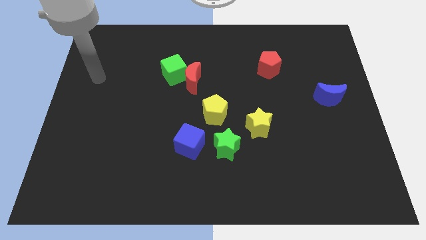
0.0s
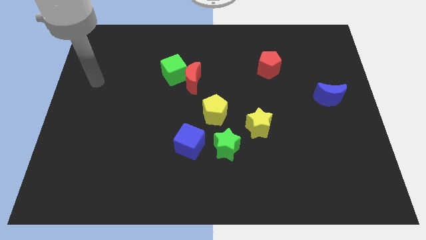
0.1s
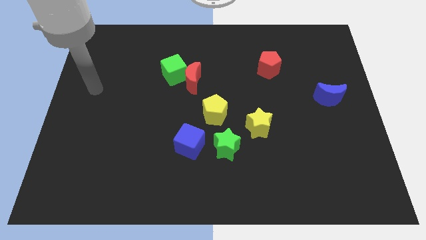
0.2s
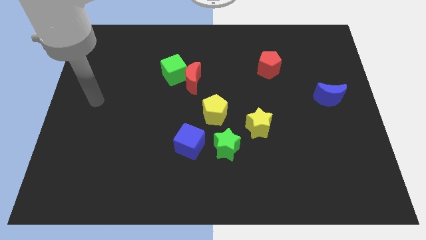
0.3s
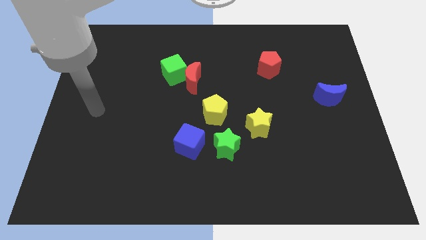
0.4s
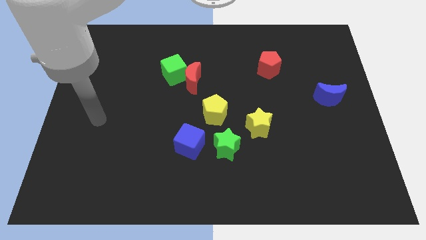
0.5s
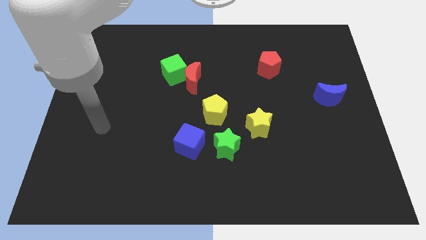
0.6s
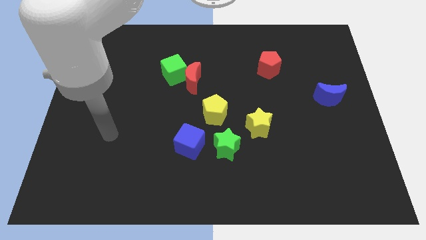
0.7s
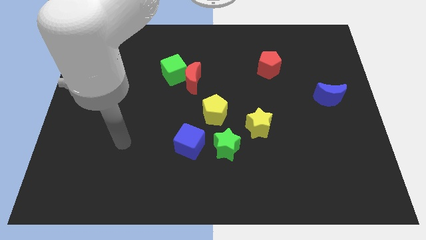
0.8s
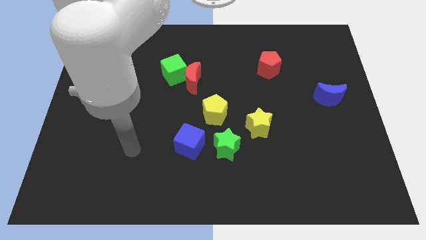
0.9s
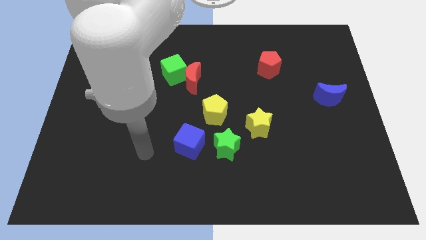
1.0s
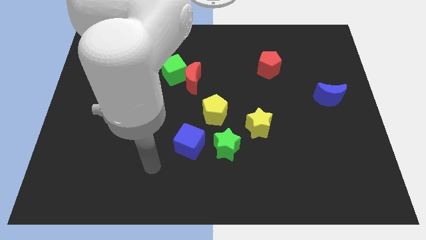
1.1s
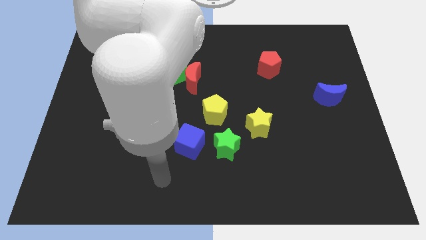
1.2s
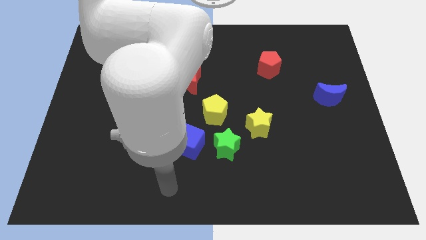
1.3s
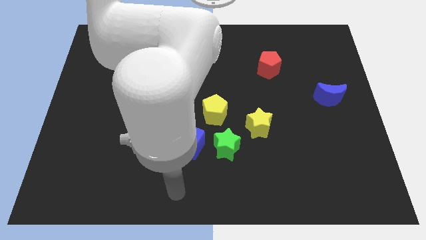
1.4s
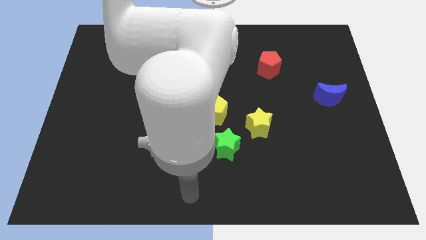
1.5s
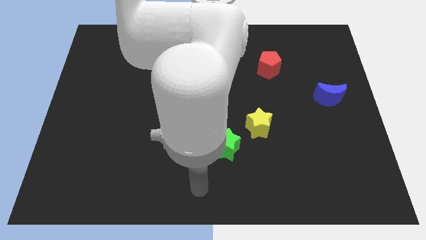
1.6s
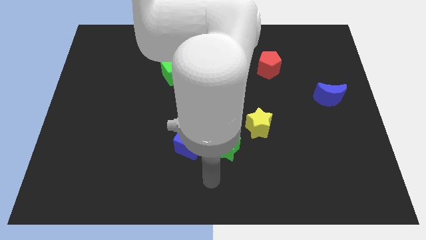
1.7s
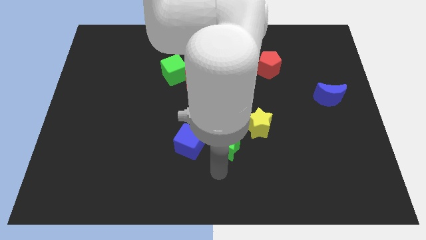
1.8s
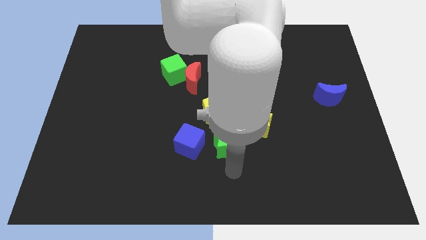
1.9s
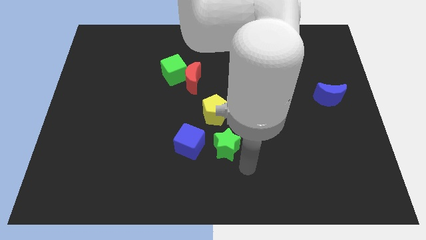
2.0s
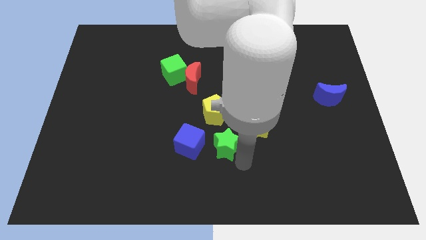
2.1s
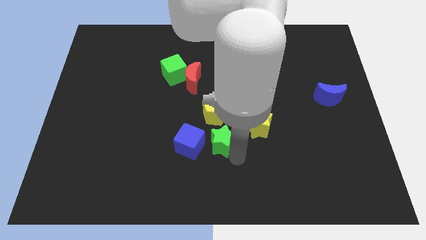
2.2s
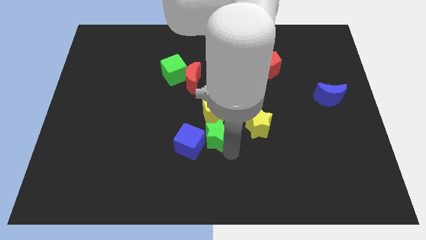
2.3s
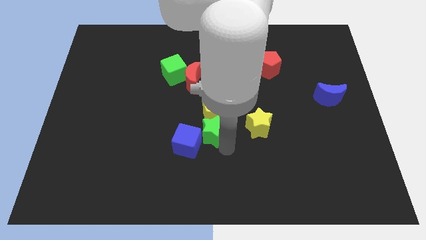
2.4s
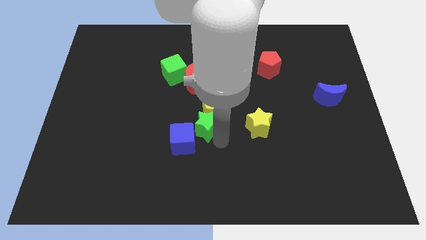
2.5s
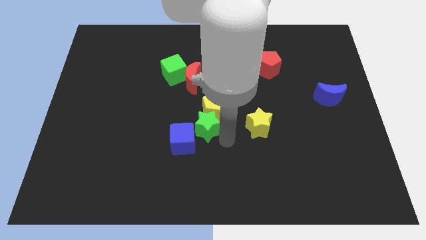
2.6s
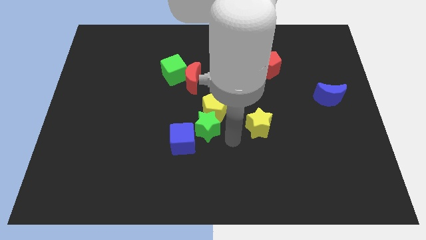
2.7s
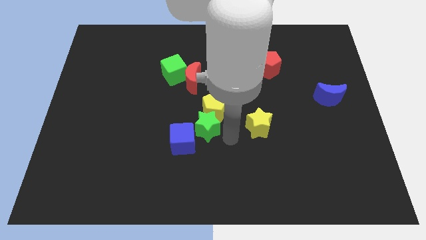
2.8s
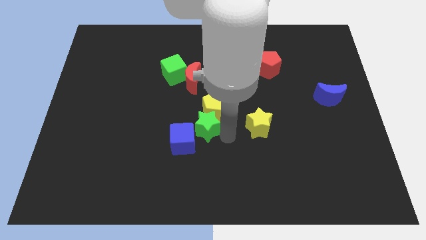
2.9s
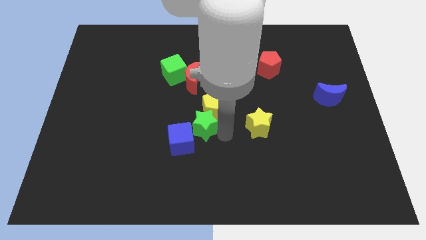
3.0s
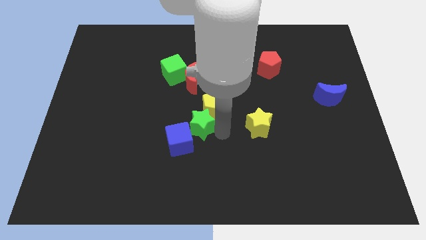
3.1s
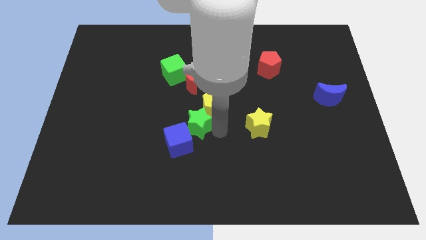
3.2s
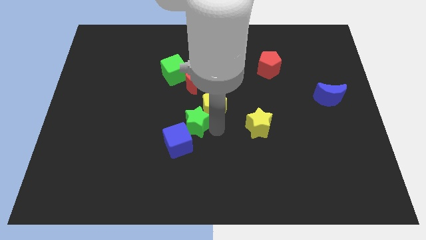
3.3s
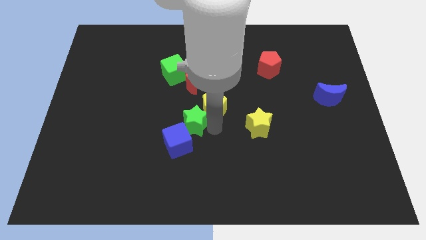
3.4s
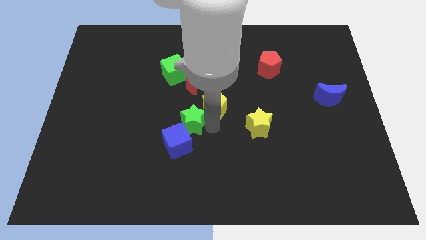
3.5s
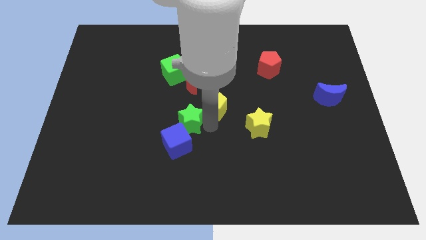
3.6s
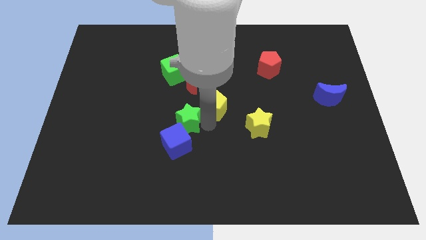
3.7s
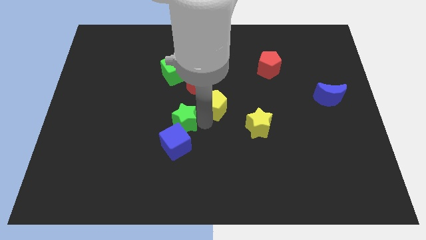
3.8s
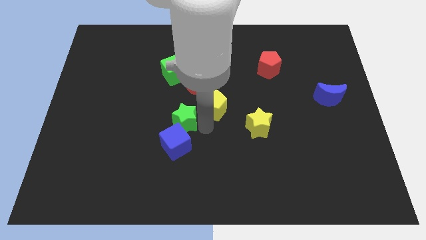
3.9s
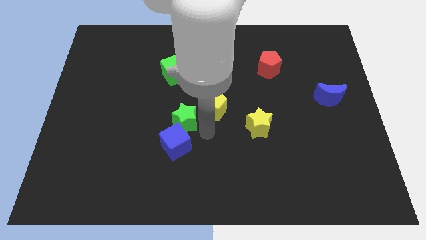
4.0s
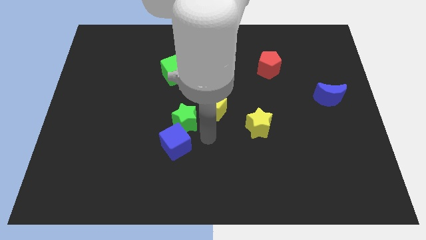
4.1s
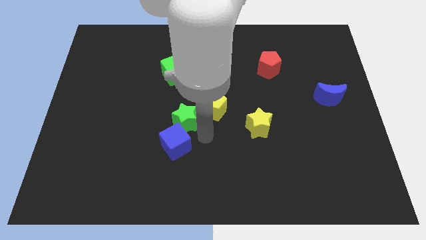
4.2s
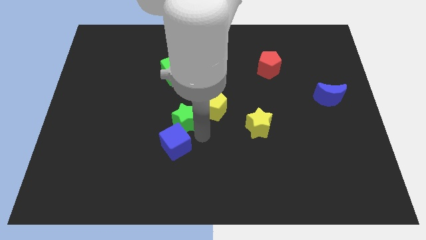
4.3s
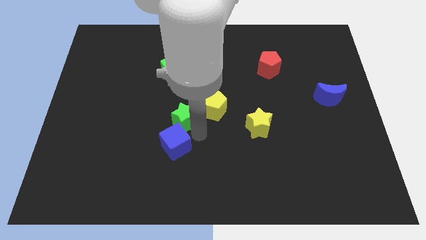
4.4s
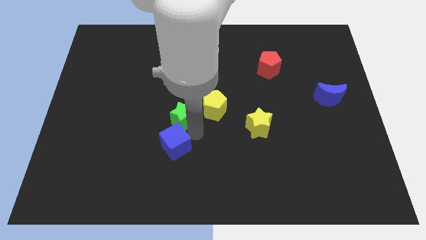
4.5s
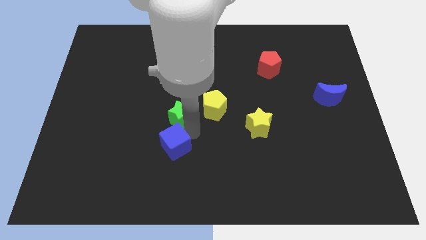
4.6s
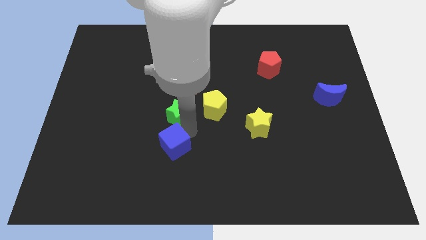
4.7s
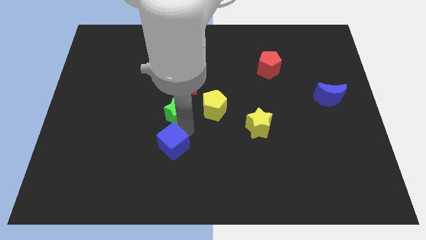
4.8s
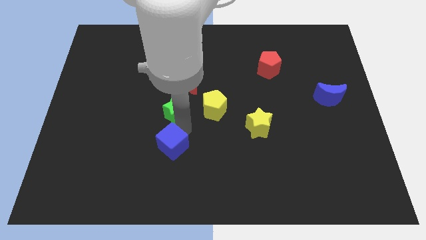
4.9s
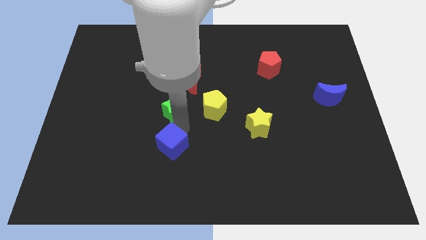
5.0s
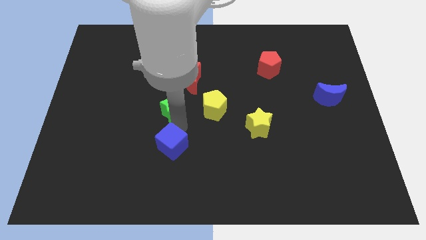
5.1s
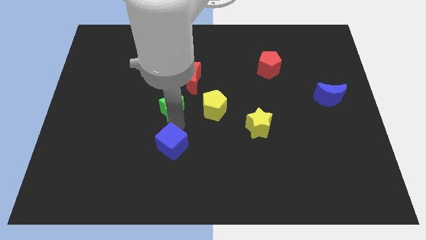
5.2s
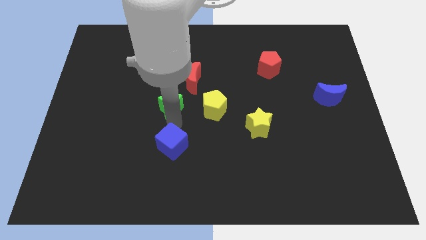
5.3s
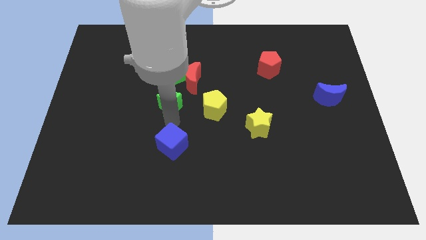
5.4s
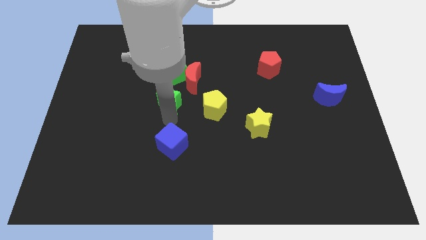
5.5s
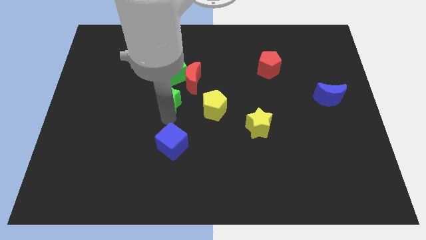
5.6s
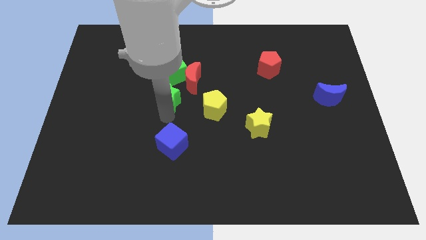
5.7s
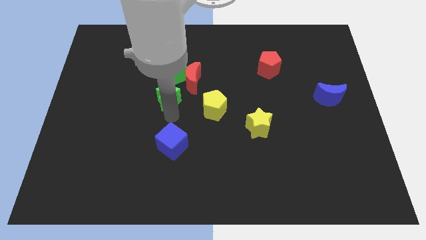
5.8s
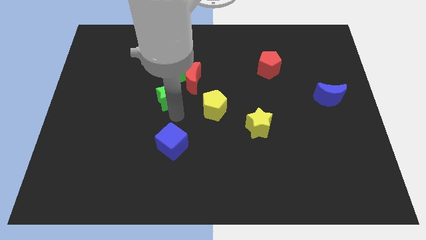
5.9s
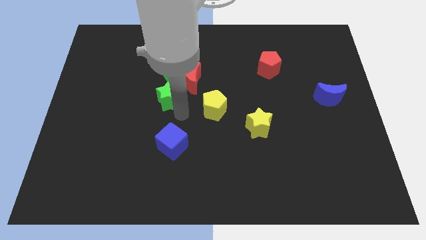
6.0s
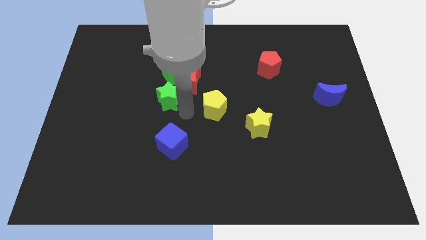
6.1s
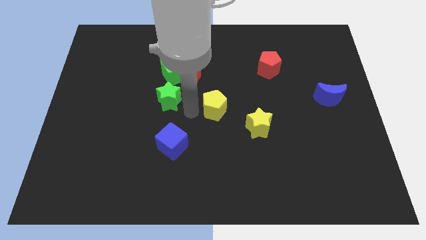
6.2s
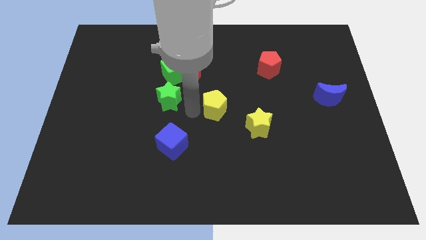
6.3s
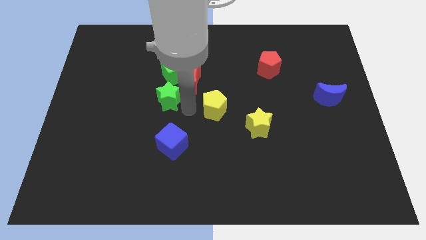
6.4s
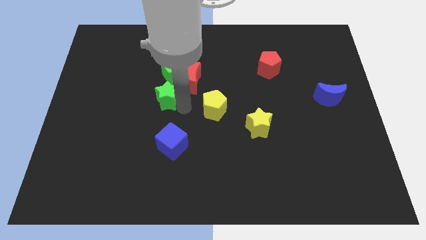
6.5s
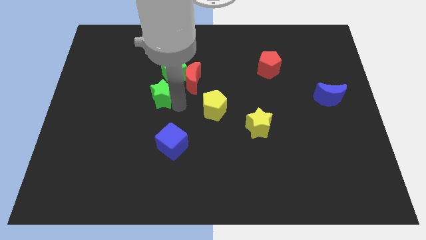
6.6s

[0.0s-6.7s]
push the green star up and to the left diagonally

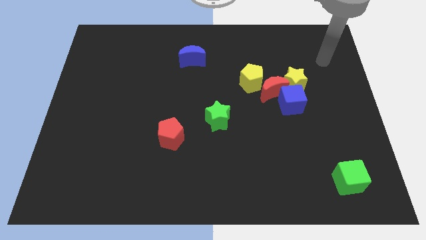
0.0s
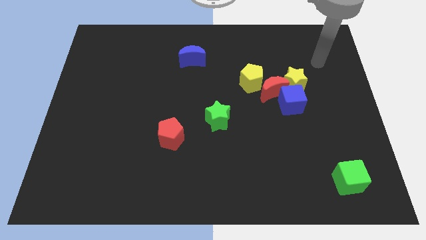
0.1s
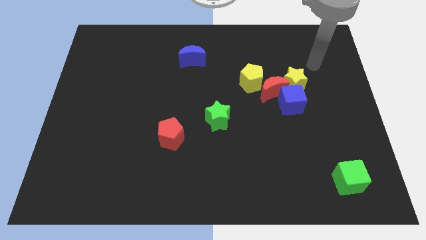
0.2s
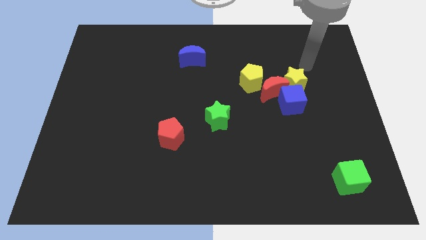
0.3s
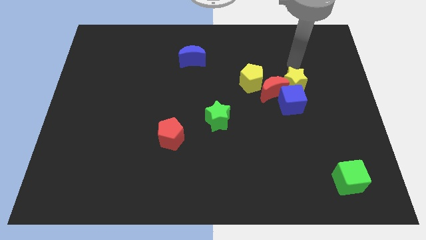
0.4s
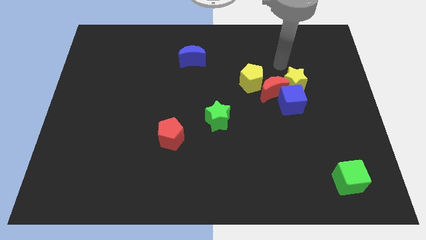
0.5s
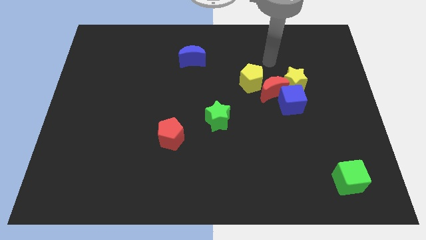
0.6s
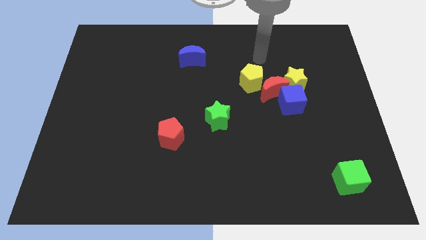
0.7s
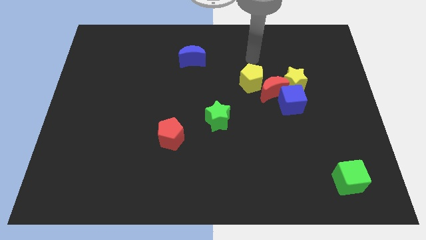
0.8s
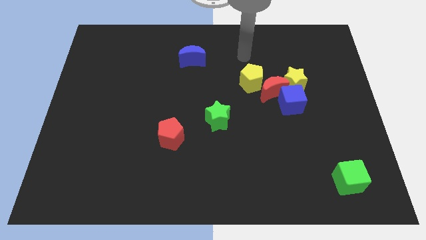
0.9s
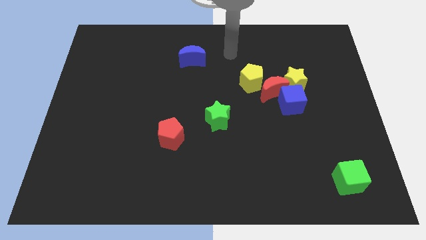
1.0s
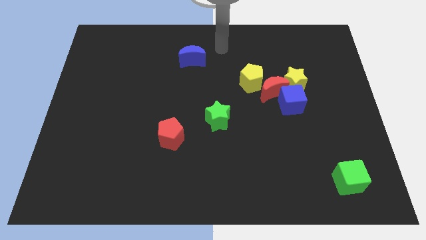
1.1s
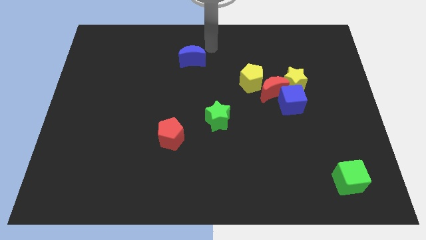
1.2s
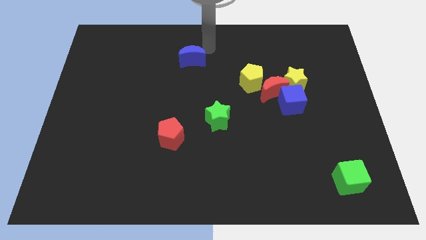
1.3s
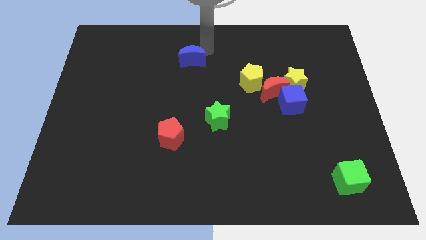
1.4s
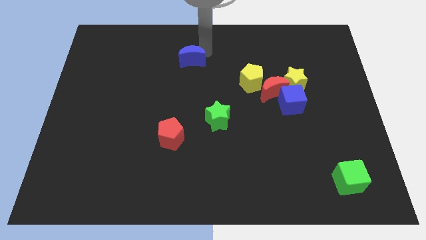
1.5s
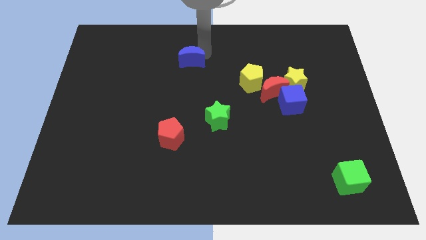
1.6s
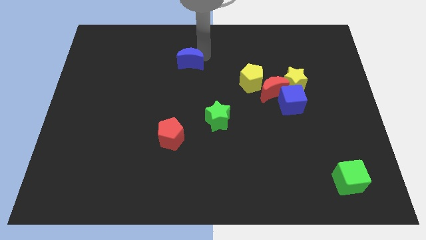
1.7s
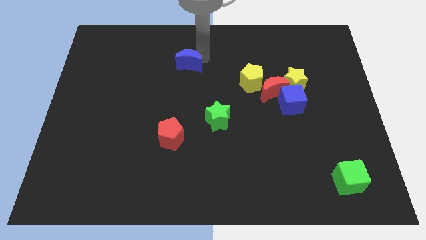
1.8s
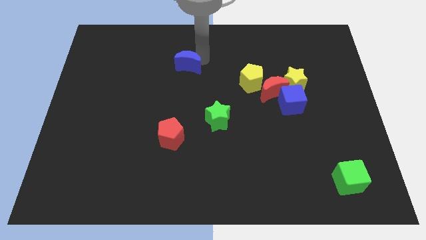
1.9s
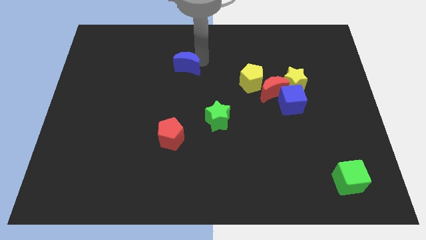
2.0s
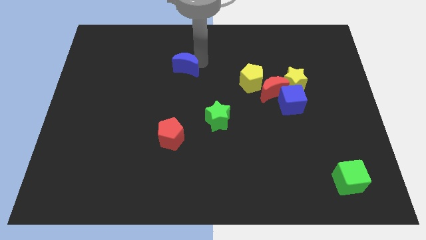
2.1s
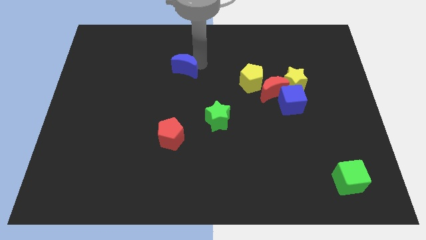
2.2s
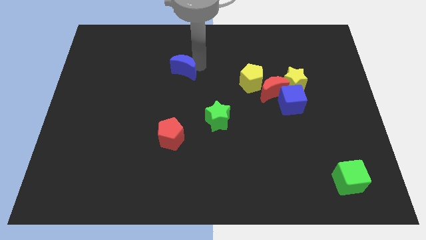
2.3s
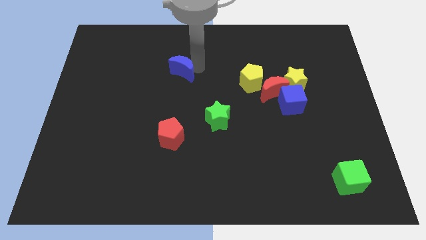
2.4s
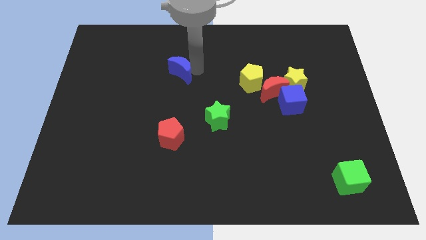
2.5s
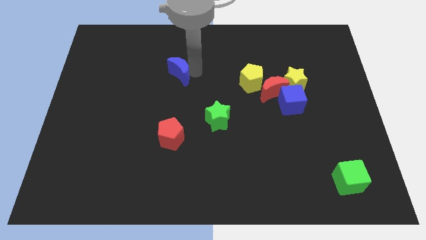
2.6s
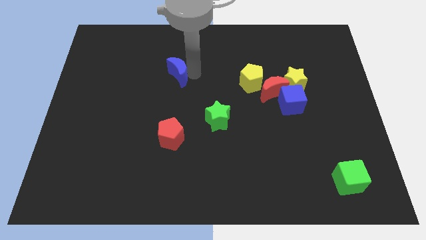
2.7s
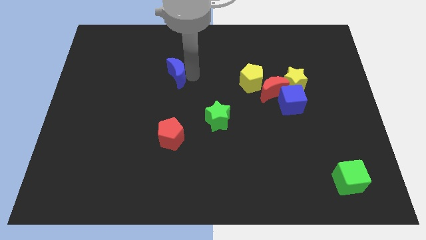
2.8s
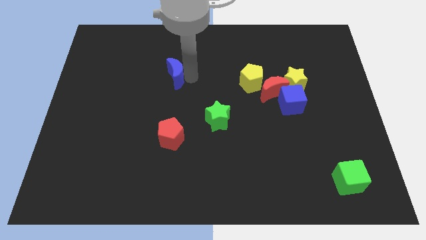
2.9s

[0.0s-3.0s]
push the blue moon slightly diagonally downwards and left
